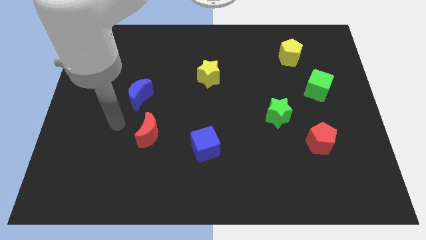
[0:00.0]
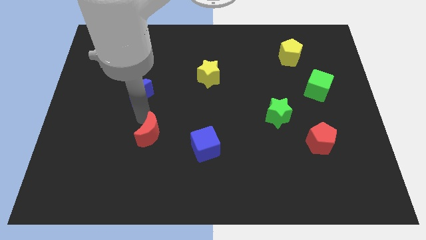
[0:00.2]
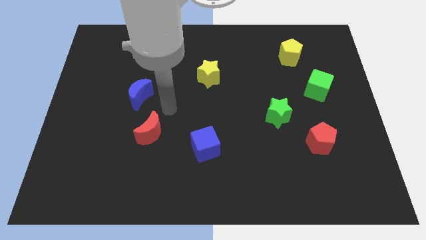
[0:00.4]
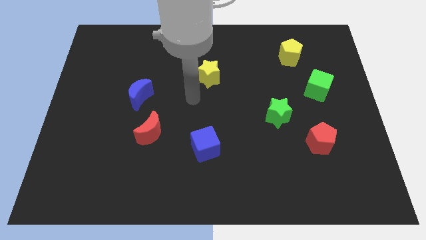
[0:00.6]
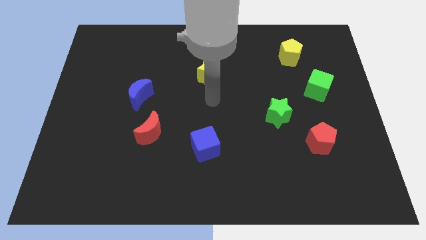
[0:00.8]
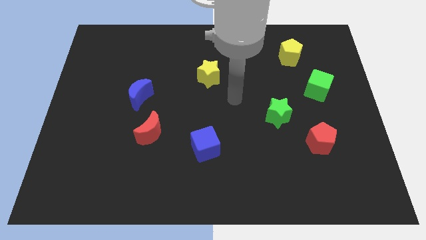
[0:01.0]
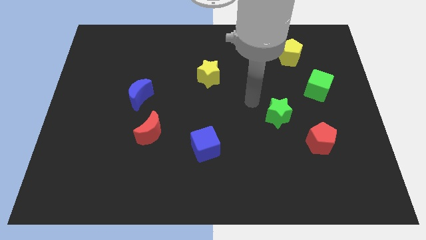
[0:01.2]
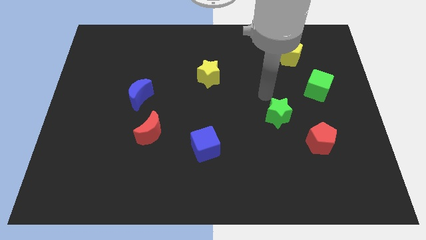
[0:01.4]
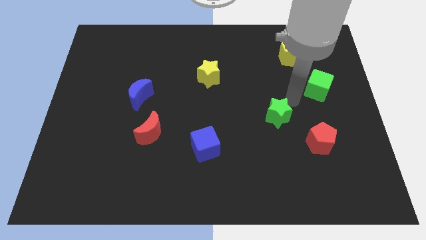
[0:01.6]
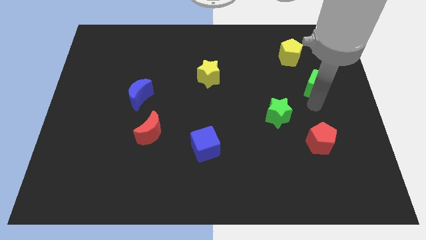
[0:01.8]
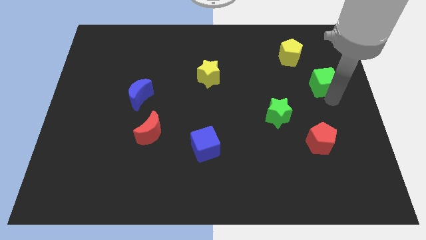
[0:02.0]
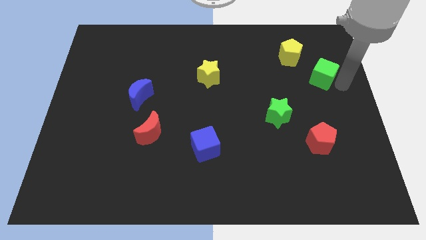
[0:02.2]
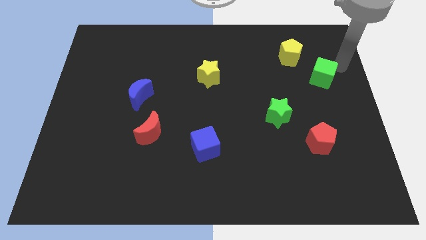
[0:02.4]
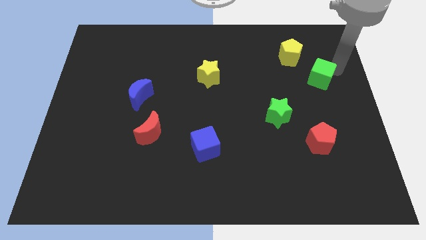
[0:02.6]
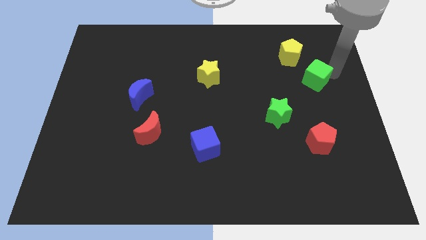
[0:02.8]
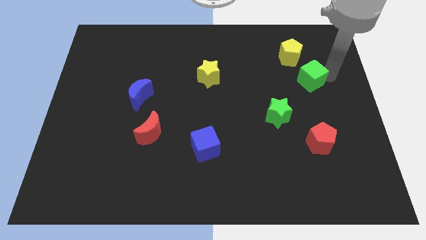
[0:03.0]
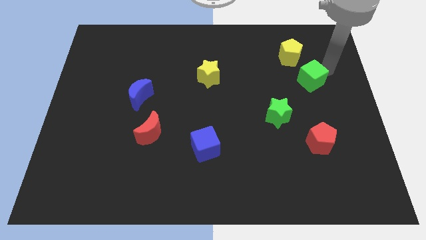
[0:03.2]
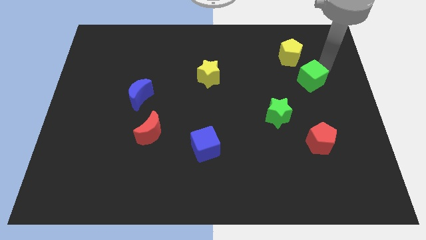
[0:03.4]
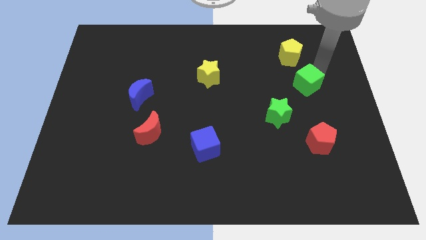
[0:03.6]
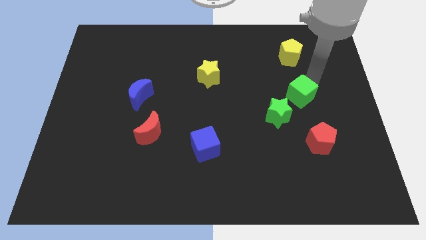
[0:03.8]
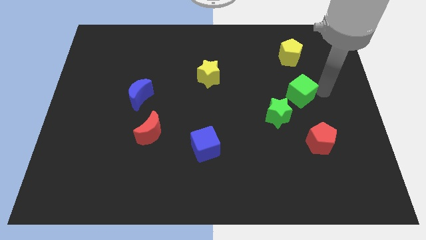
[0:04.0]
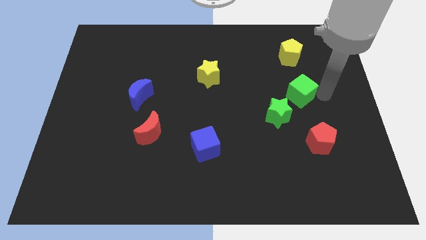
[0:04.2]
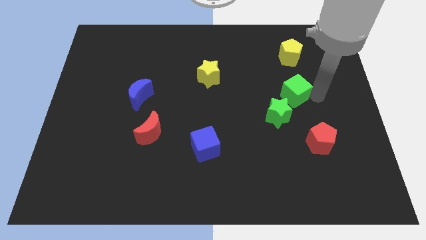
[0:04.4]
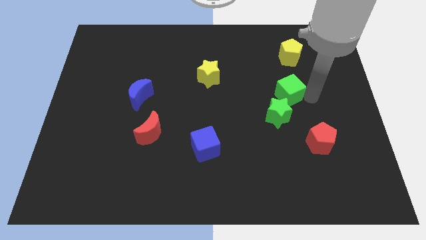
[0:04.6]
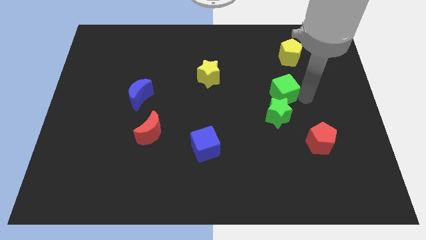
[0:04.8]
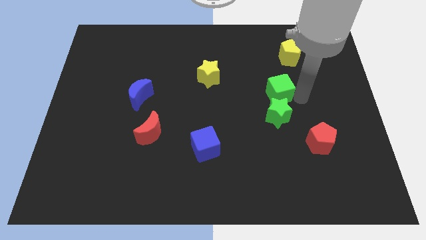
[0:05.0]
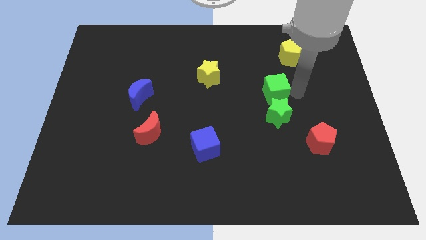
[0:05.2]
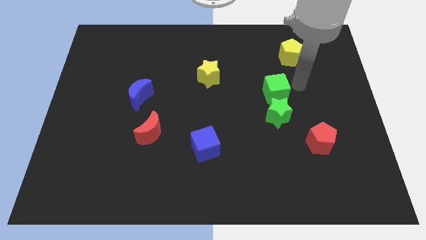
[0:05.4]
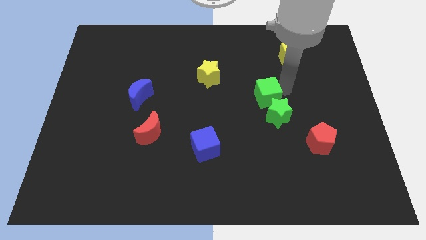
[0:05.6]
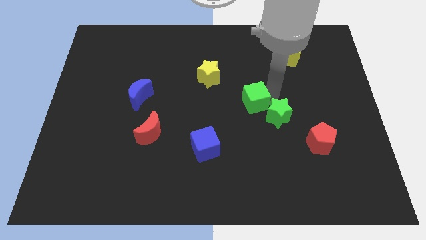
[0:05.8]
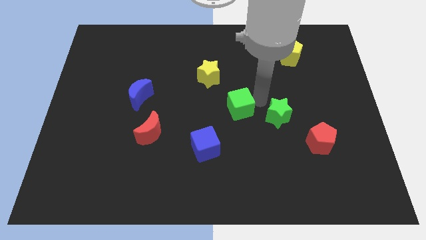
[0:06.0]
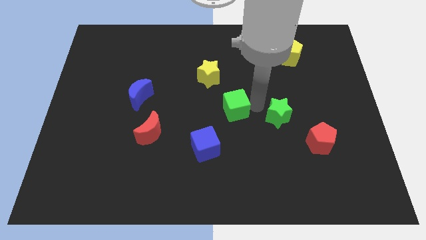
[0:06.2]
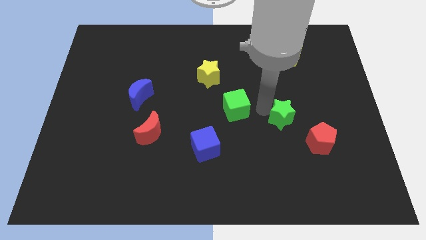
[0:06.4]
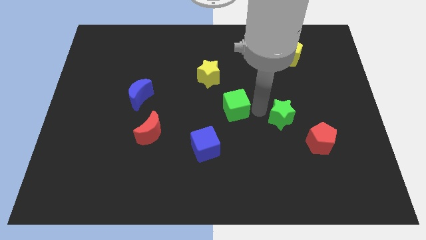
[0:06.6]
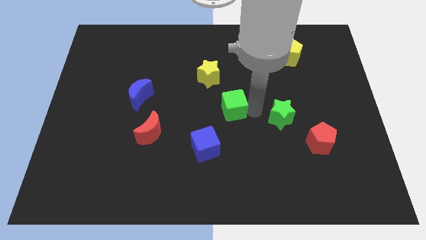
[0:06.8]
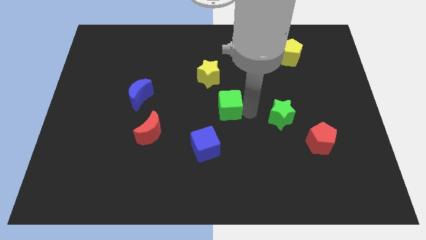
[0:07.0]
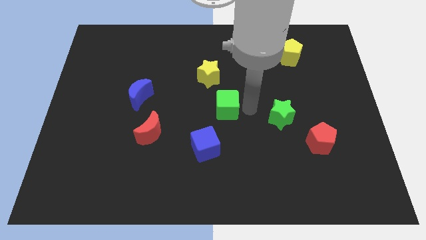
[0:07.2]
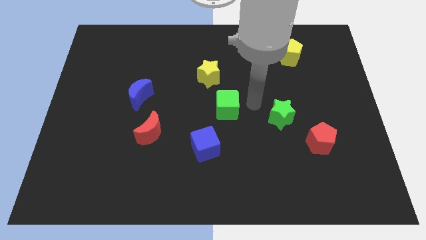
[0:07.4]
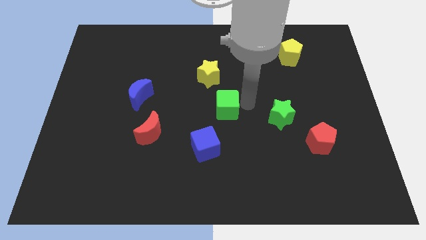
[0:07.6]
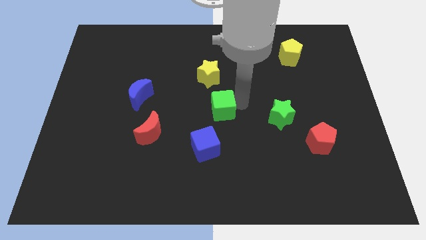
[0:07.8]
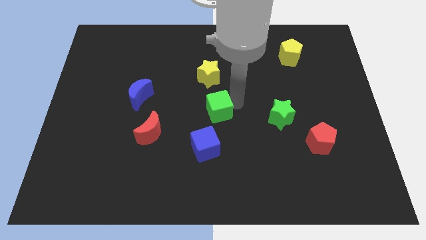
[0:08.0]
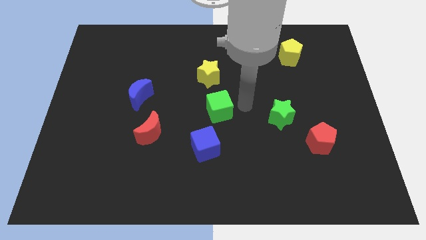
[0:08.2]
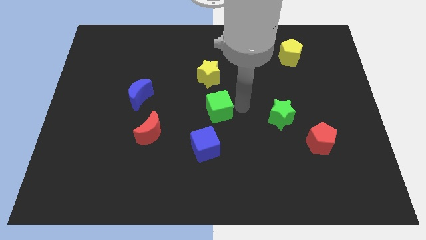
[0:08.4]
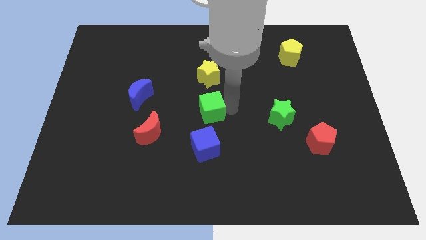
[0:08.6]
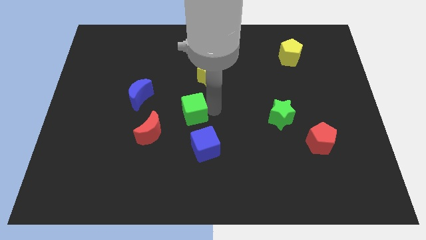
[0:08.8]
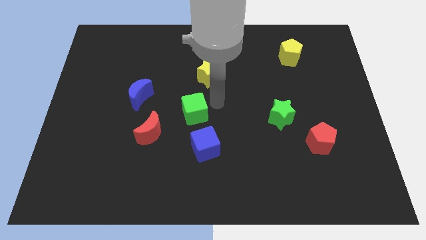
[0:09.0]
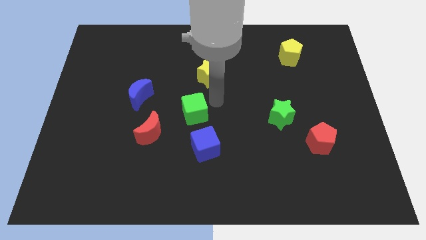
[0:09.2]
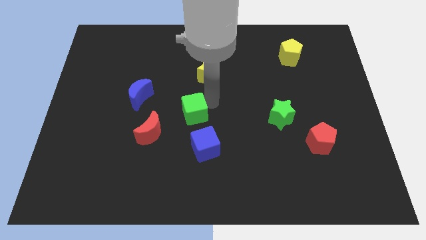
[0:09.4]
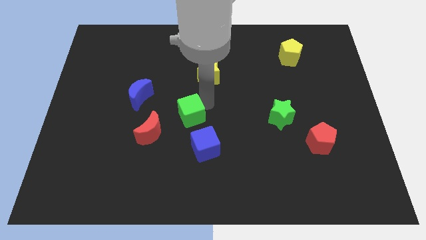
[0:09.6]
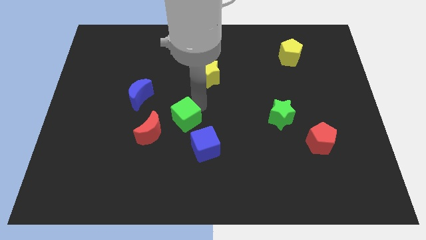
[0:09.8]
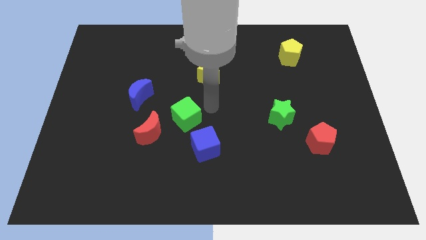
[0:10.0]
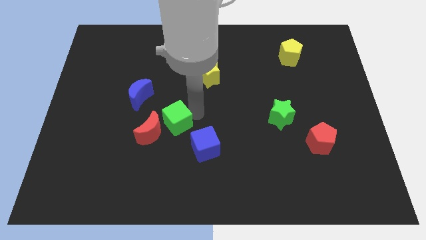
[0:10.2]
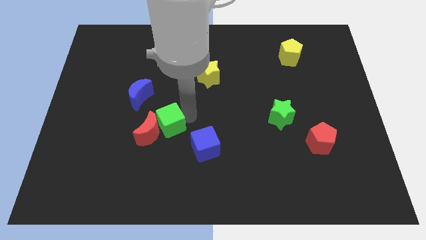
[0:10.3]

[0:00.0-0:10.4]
slide the green cube close to the red moon

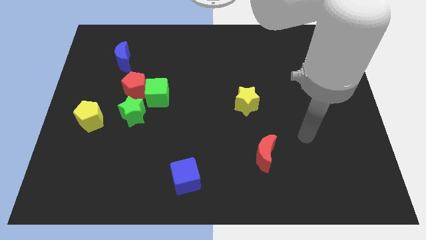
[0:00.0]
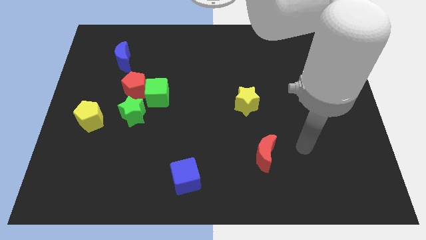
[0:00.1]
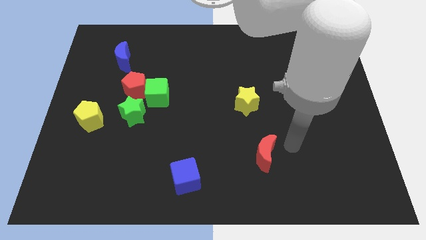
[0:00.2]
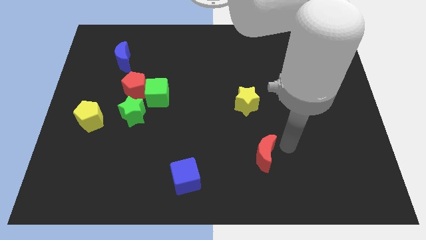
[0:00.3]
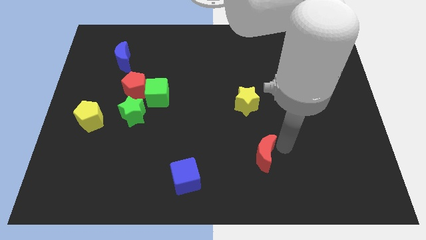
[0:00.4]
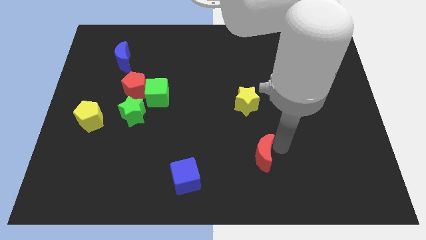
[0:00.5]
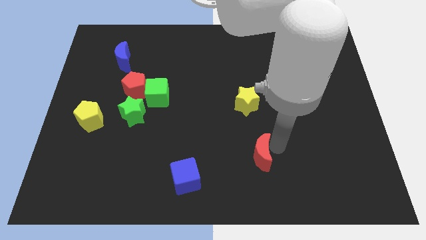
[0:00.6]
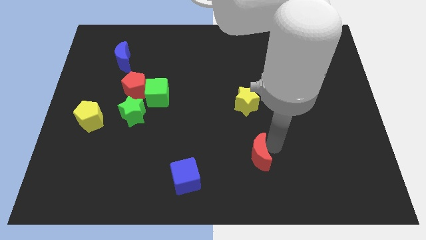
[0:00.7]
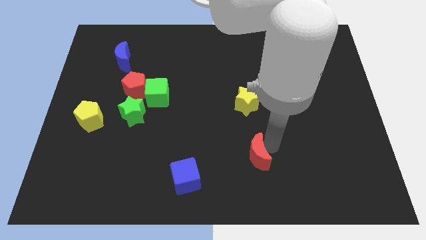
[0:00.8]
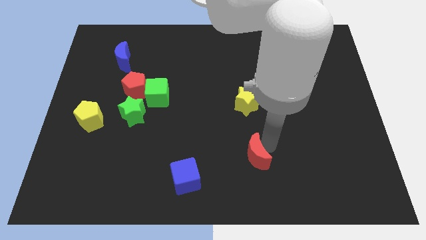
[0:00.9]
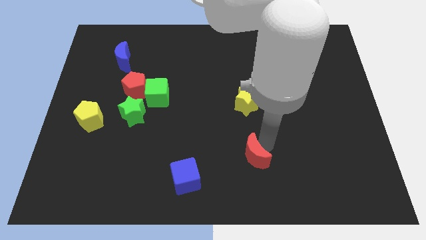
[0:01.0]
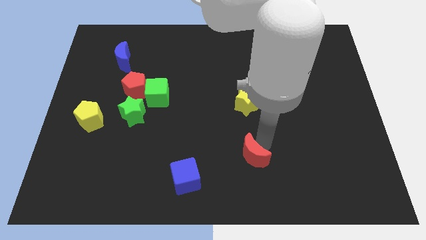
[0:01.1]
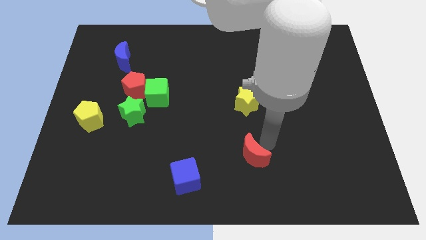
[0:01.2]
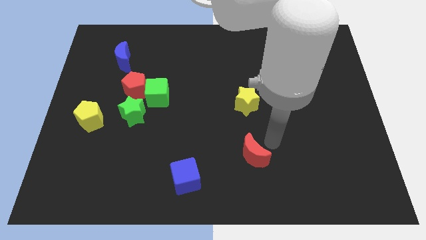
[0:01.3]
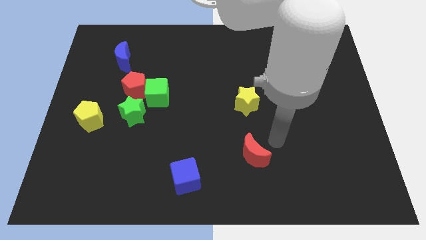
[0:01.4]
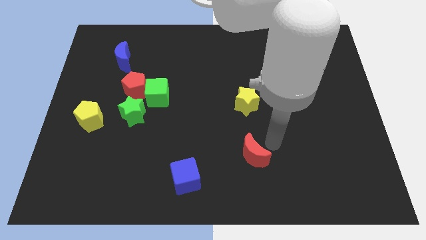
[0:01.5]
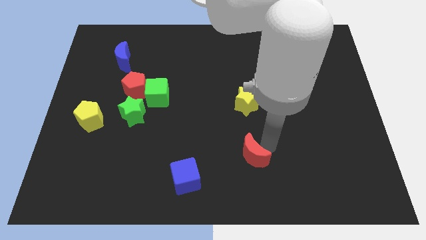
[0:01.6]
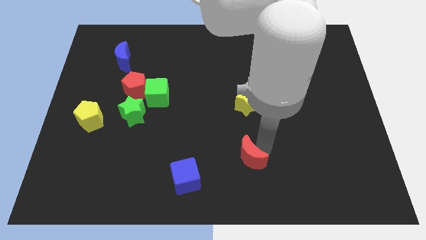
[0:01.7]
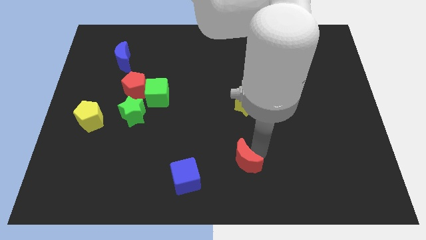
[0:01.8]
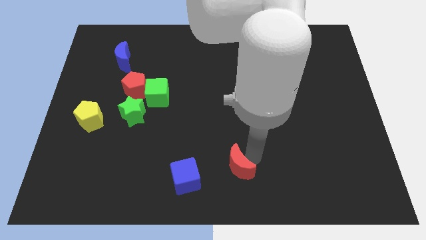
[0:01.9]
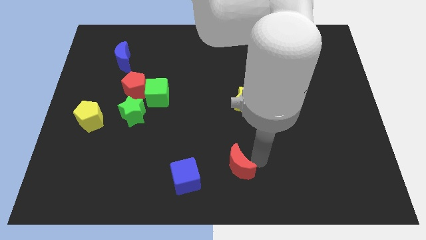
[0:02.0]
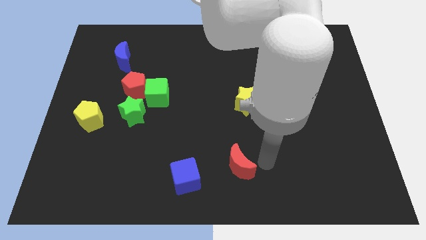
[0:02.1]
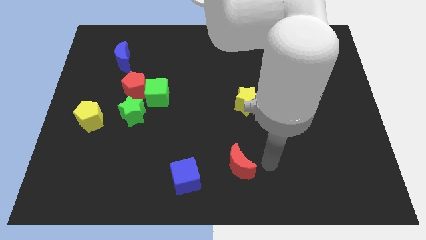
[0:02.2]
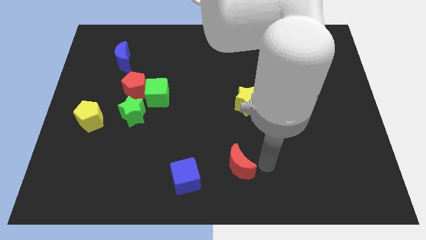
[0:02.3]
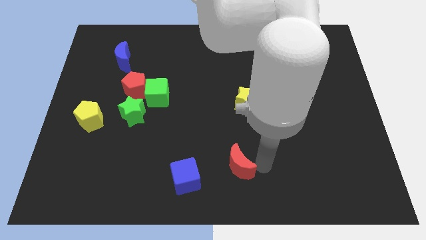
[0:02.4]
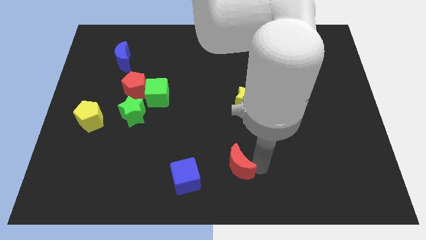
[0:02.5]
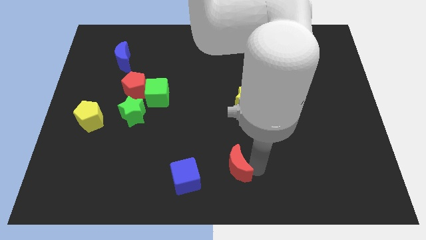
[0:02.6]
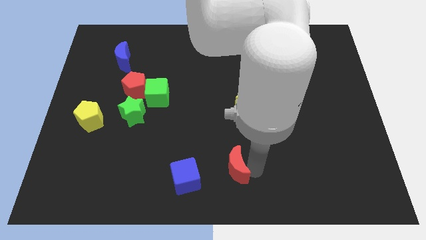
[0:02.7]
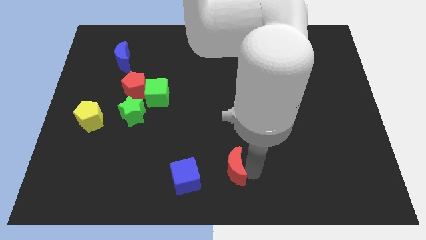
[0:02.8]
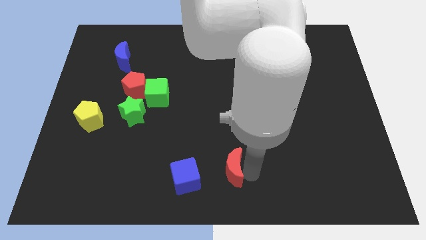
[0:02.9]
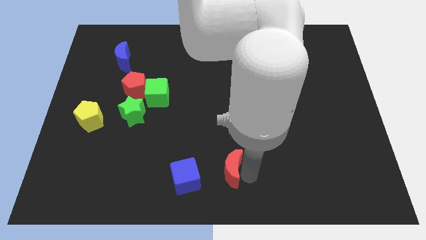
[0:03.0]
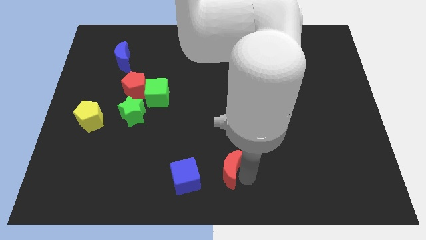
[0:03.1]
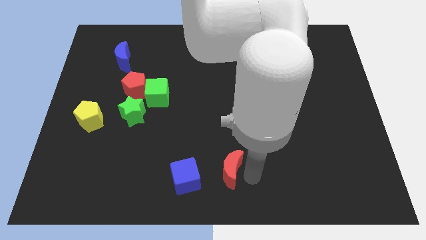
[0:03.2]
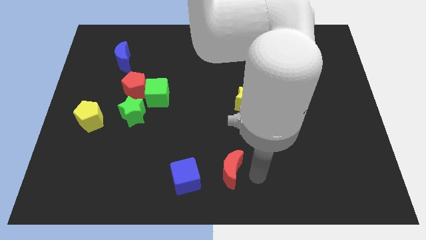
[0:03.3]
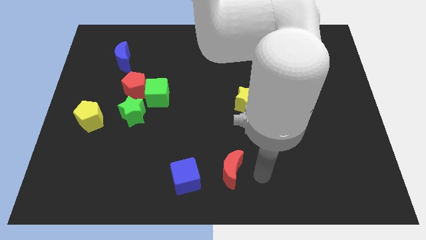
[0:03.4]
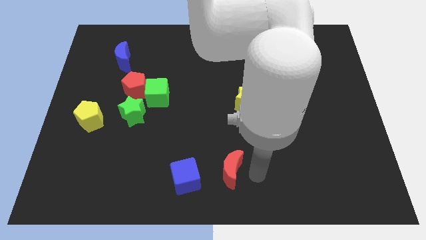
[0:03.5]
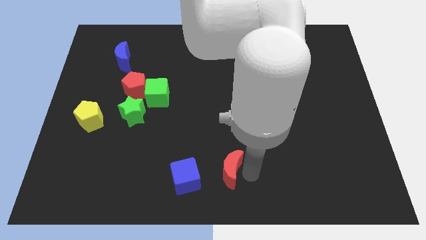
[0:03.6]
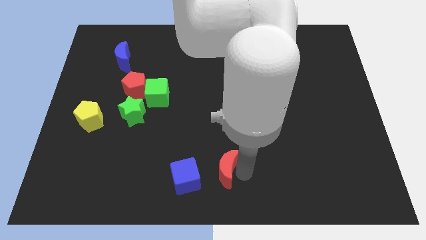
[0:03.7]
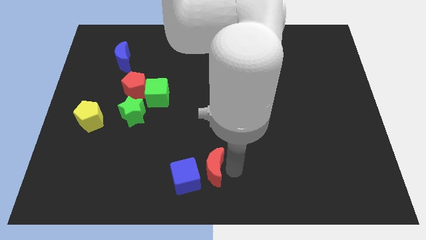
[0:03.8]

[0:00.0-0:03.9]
move the red moon to the blue cube
